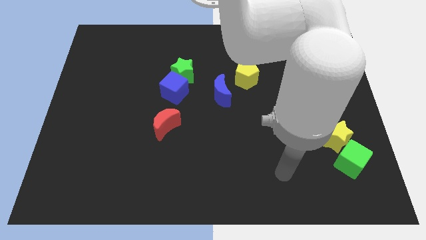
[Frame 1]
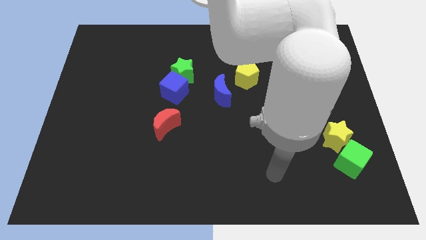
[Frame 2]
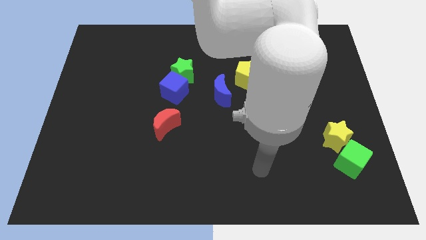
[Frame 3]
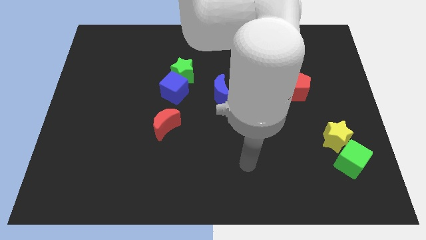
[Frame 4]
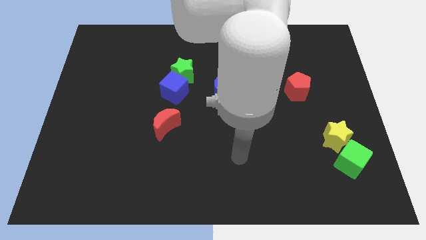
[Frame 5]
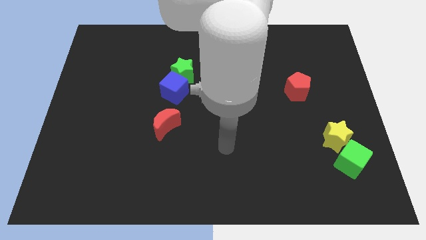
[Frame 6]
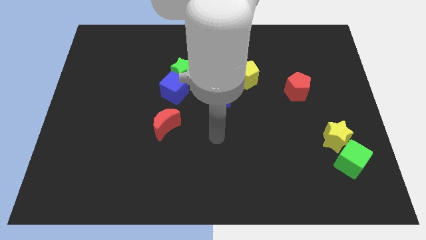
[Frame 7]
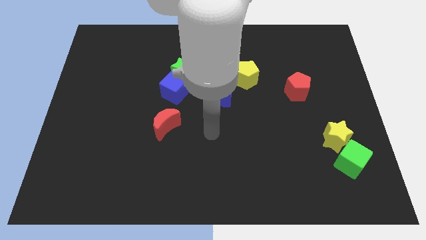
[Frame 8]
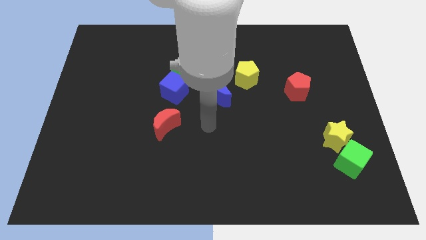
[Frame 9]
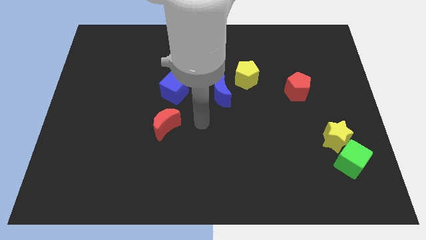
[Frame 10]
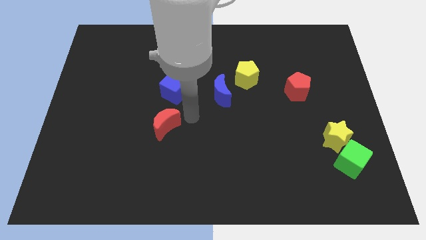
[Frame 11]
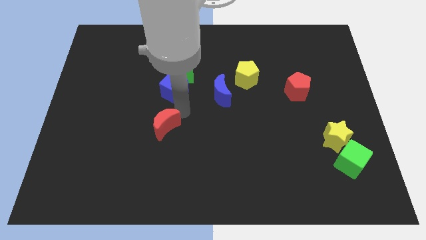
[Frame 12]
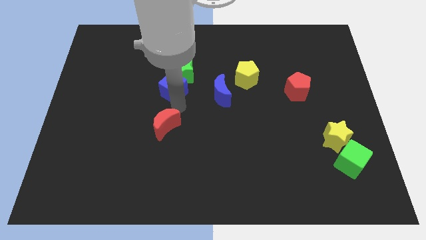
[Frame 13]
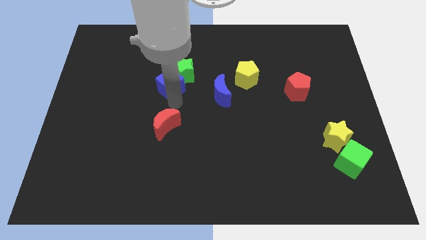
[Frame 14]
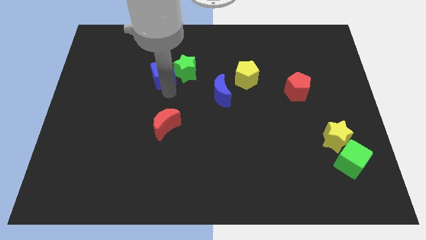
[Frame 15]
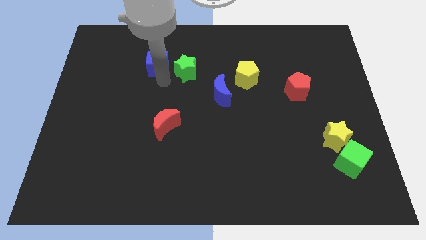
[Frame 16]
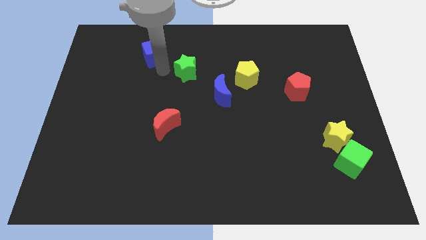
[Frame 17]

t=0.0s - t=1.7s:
separate the green star from the blue cube

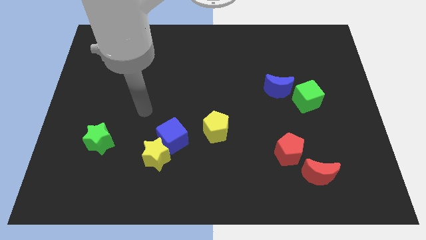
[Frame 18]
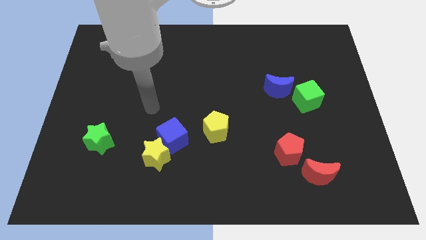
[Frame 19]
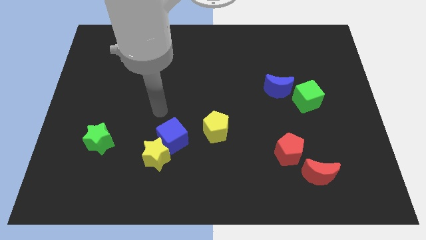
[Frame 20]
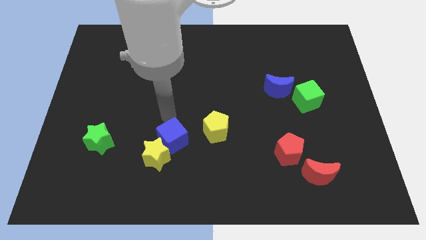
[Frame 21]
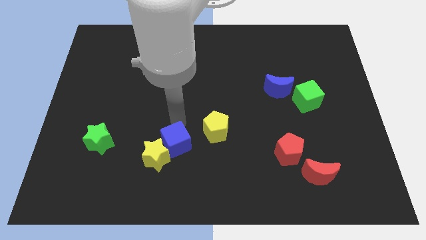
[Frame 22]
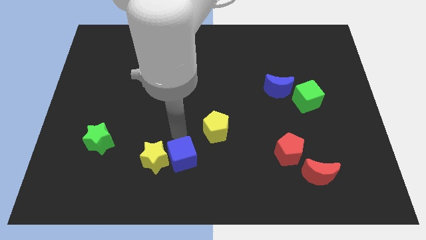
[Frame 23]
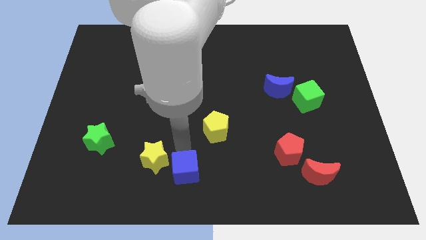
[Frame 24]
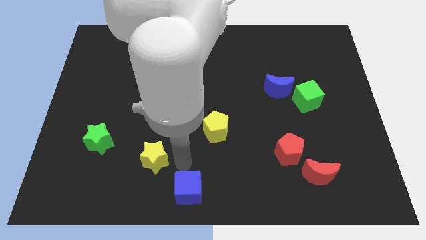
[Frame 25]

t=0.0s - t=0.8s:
move the yellow star away from the blue cube

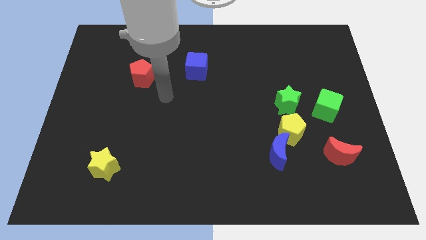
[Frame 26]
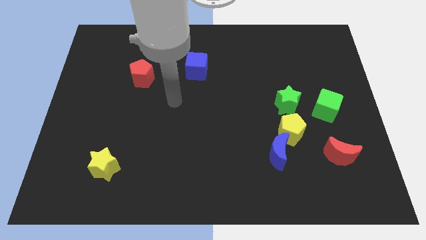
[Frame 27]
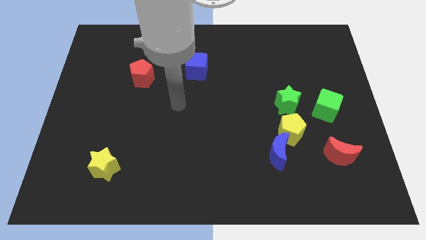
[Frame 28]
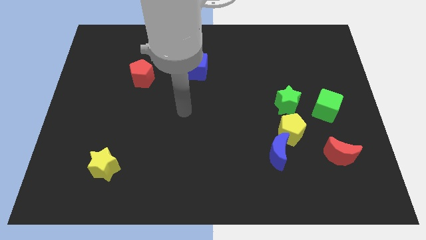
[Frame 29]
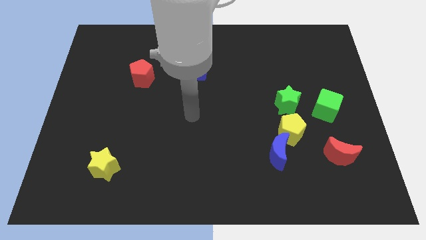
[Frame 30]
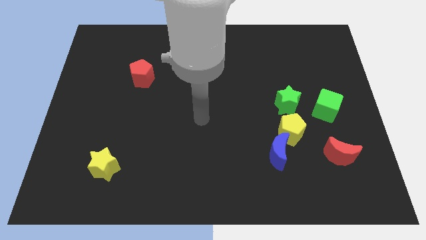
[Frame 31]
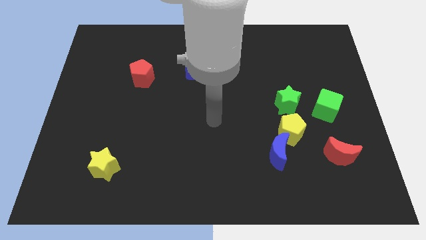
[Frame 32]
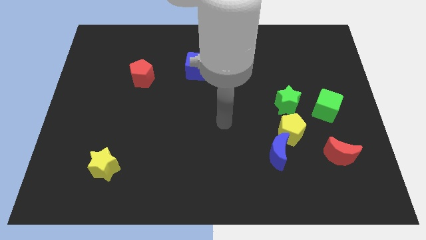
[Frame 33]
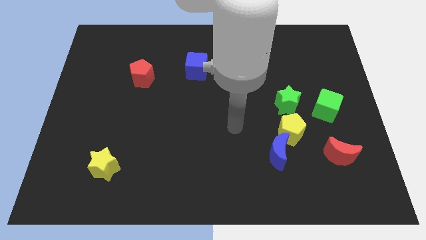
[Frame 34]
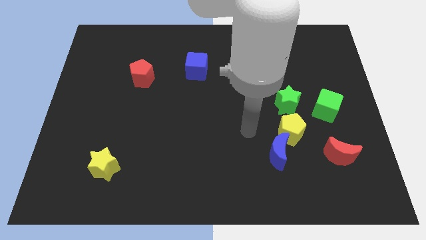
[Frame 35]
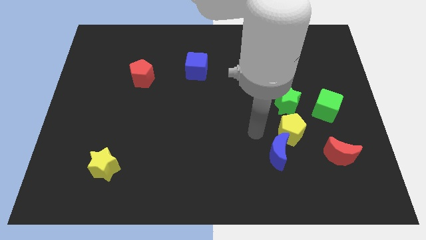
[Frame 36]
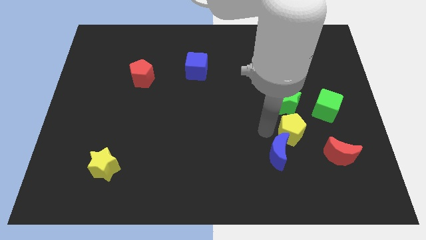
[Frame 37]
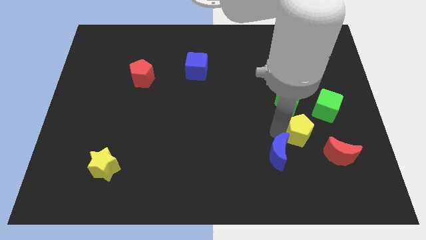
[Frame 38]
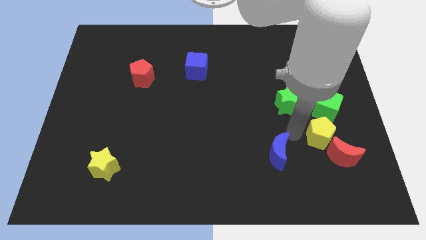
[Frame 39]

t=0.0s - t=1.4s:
move the blue moon away from the yellow pentagon

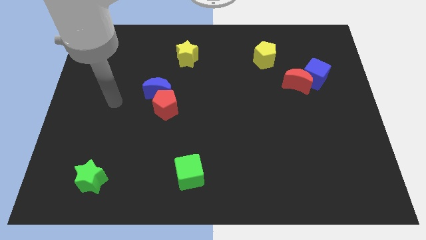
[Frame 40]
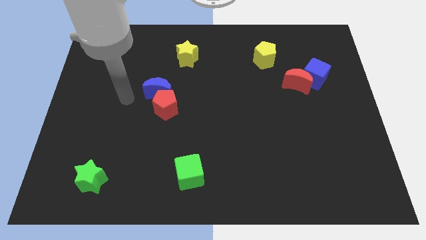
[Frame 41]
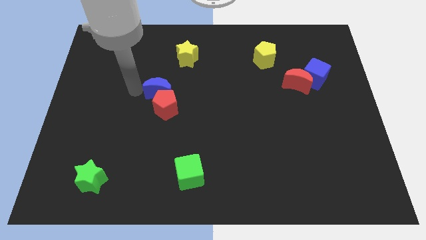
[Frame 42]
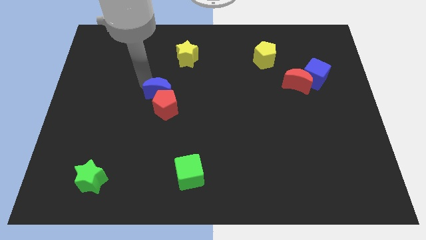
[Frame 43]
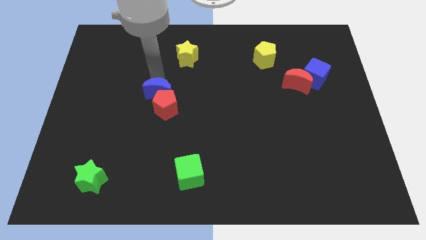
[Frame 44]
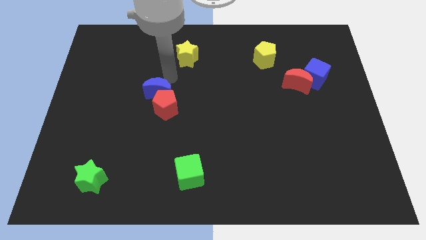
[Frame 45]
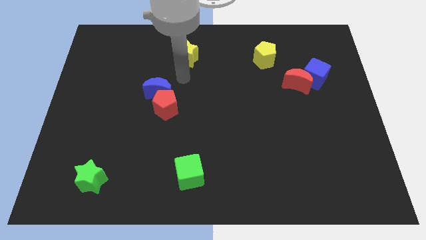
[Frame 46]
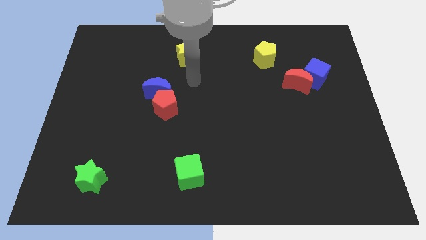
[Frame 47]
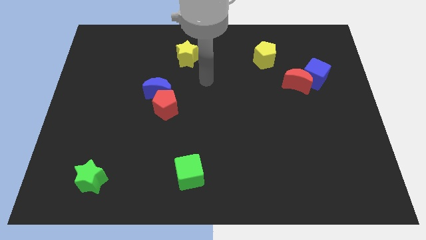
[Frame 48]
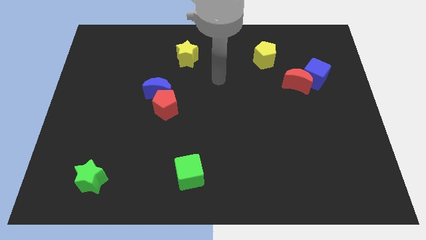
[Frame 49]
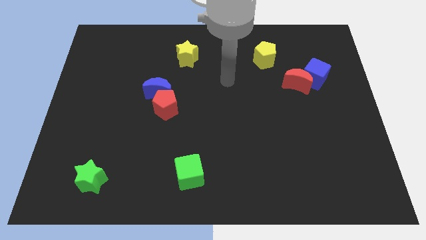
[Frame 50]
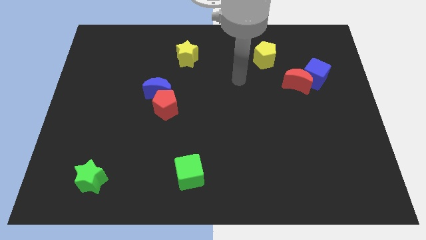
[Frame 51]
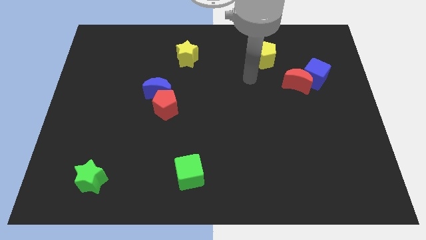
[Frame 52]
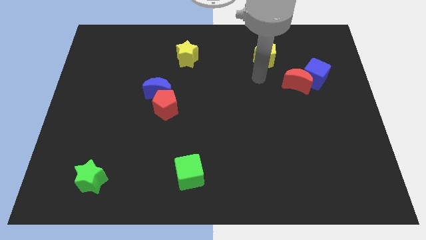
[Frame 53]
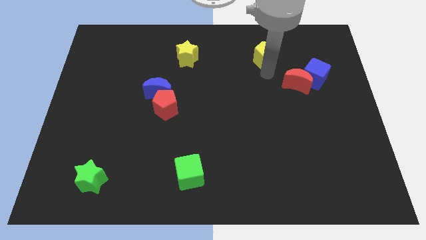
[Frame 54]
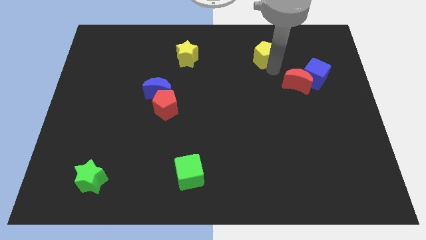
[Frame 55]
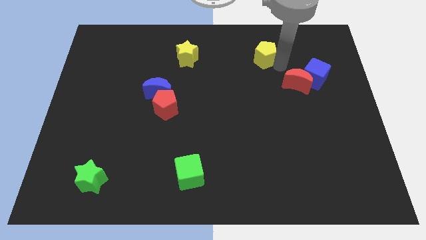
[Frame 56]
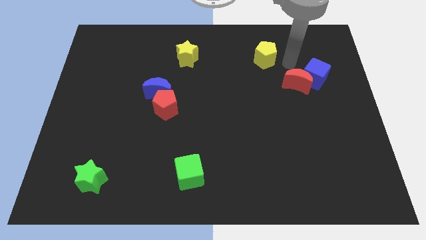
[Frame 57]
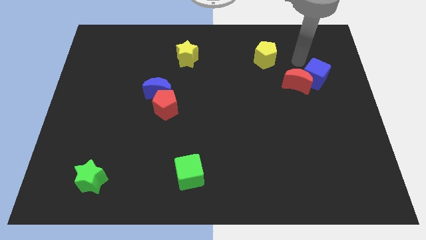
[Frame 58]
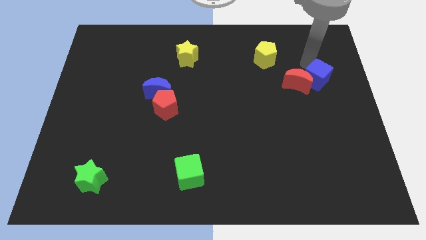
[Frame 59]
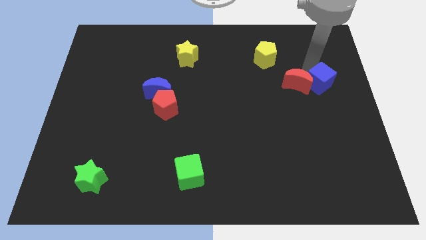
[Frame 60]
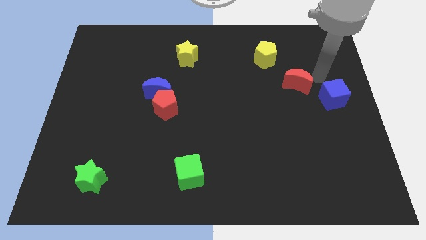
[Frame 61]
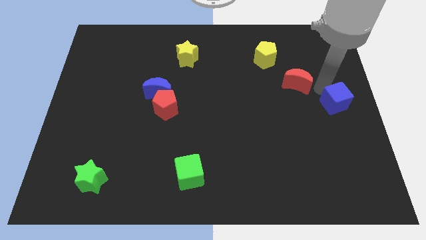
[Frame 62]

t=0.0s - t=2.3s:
move the red moon away from the blue cube

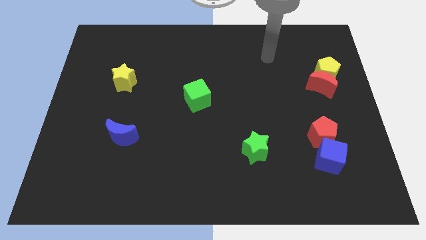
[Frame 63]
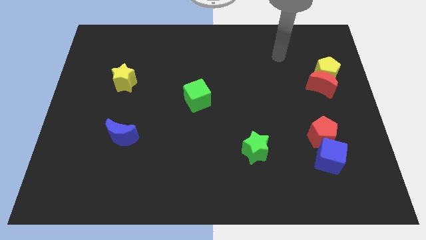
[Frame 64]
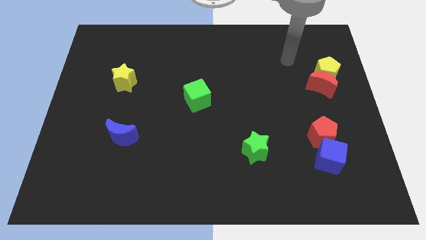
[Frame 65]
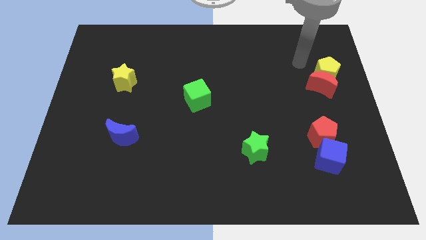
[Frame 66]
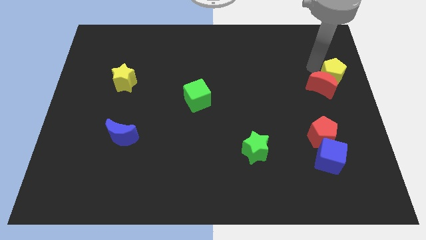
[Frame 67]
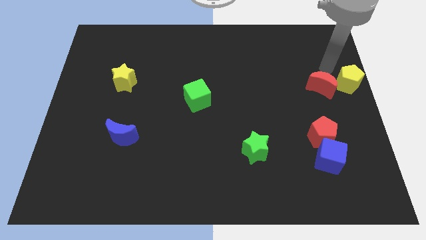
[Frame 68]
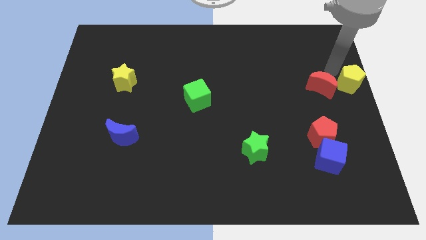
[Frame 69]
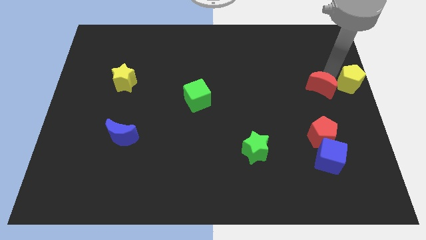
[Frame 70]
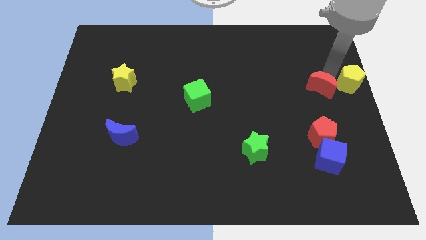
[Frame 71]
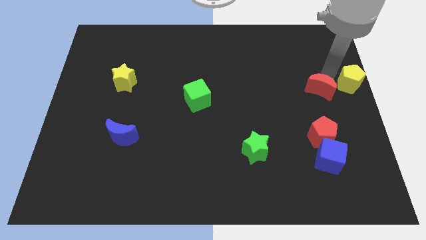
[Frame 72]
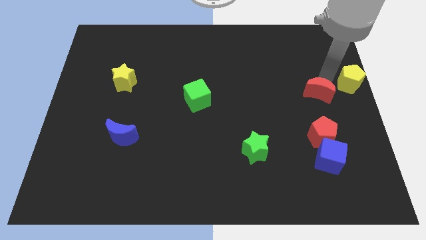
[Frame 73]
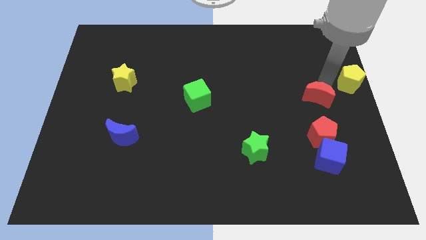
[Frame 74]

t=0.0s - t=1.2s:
pull the red moon apart from the yellow pentagon

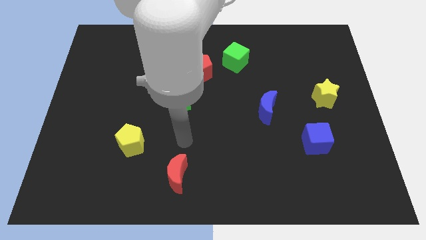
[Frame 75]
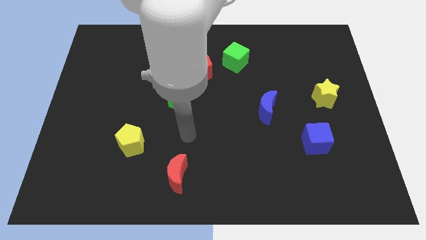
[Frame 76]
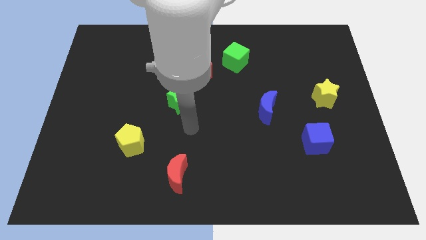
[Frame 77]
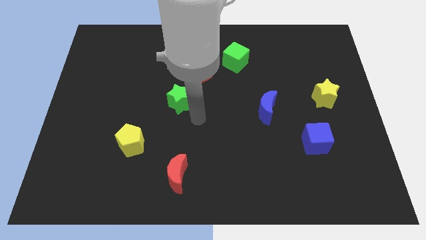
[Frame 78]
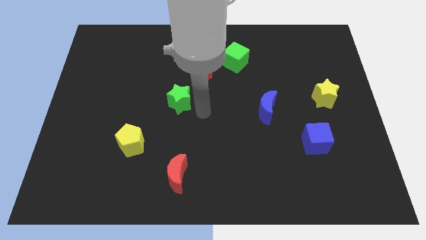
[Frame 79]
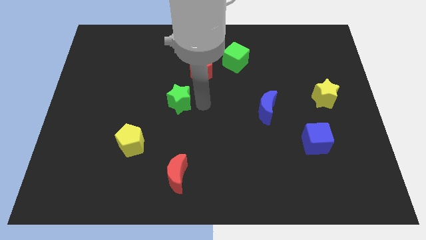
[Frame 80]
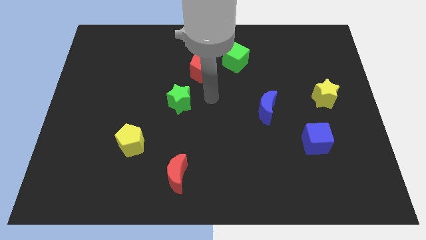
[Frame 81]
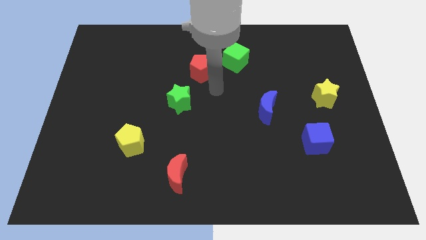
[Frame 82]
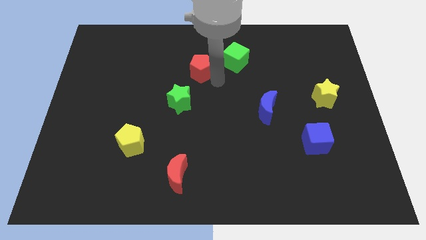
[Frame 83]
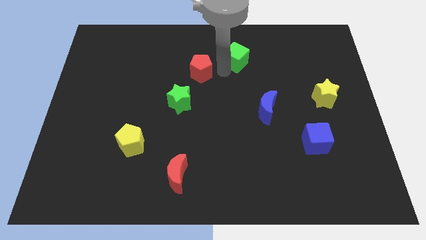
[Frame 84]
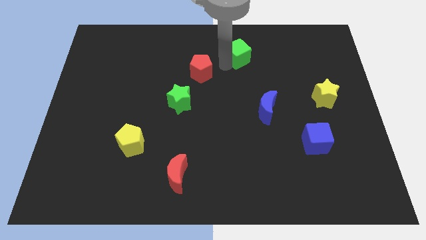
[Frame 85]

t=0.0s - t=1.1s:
move the red pentagon away from the green cube

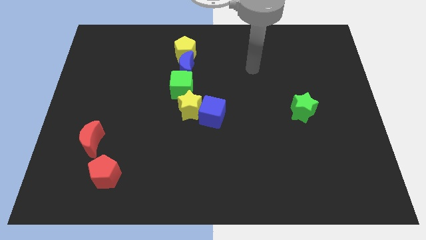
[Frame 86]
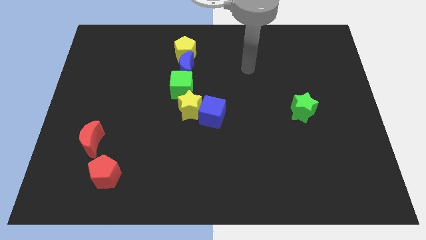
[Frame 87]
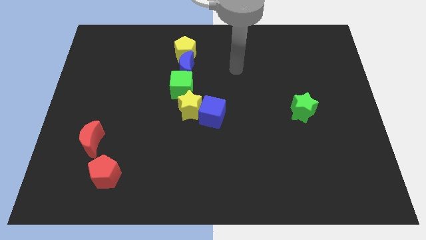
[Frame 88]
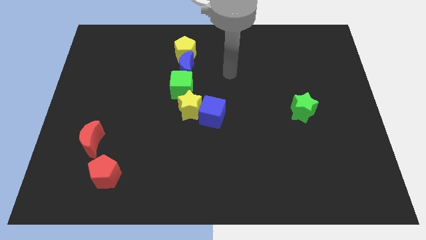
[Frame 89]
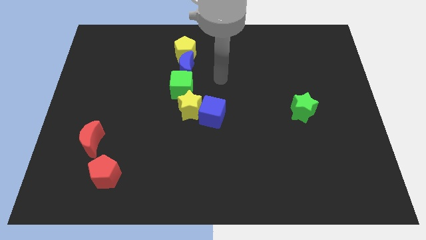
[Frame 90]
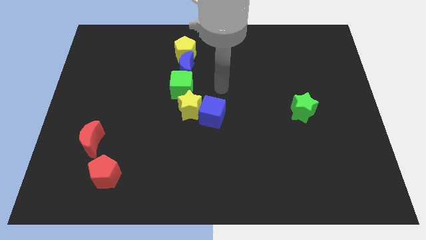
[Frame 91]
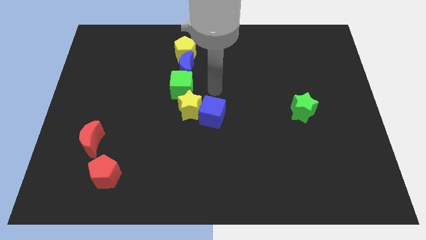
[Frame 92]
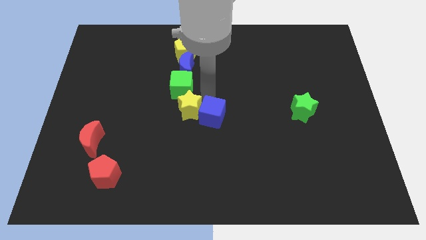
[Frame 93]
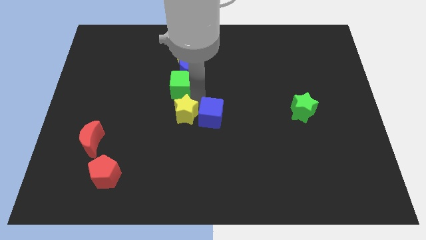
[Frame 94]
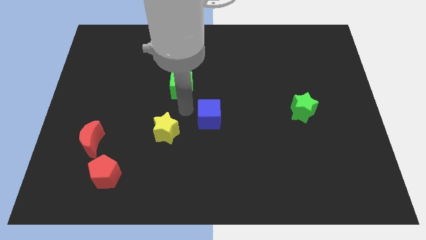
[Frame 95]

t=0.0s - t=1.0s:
pull the blue cube apart from the yellow star
